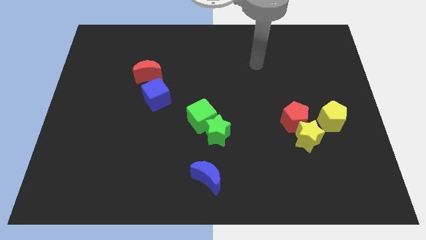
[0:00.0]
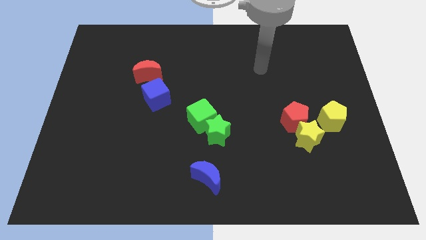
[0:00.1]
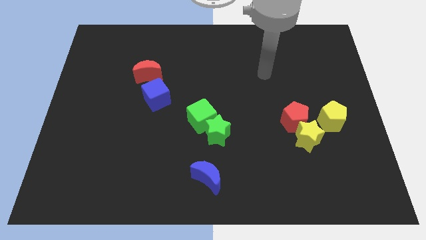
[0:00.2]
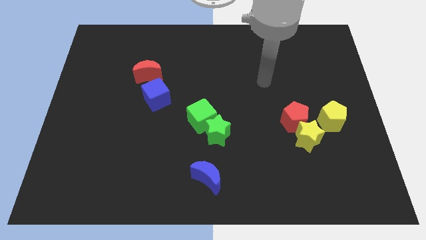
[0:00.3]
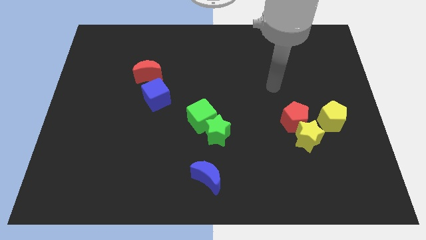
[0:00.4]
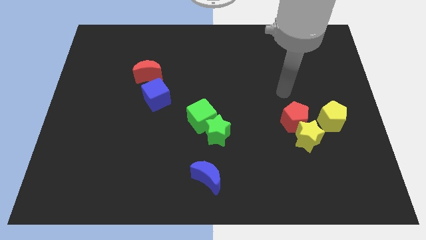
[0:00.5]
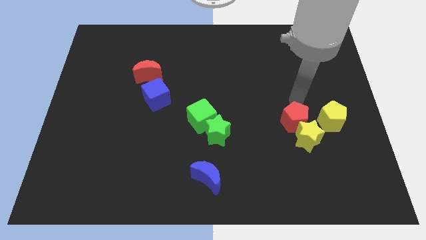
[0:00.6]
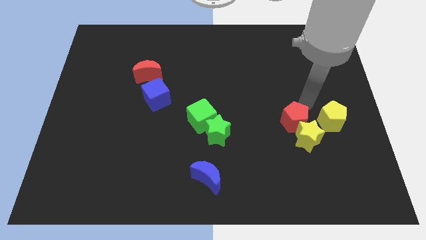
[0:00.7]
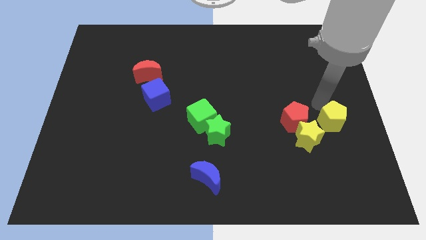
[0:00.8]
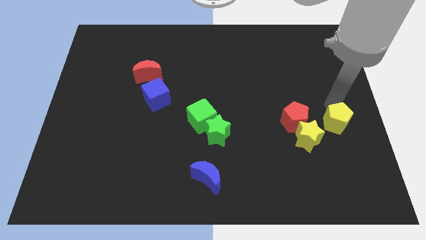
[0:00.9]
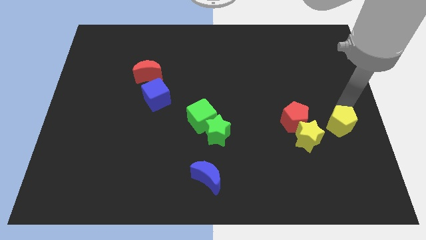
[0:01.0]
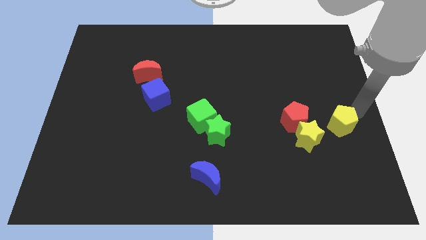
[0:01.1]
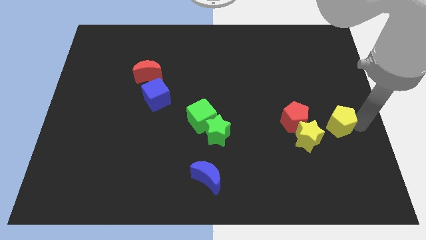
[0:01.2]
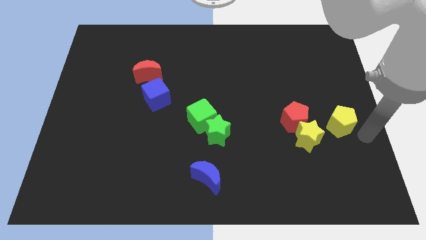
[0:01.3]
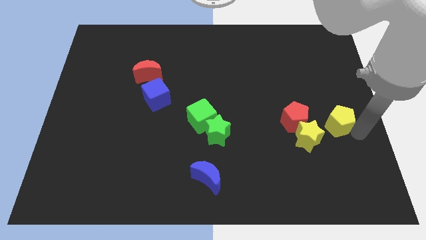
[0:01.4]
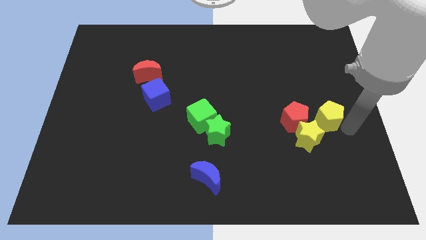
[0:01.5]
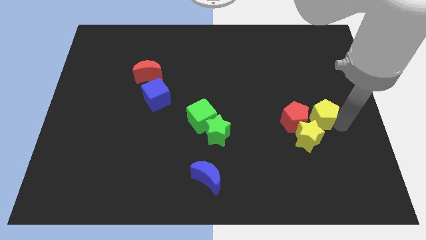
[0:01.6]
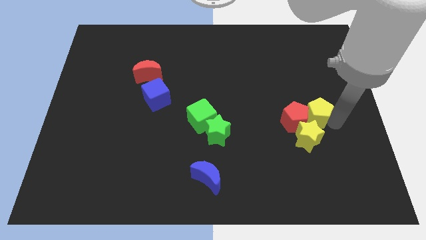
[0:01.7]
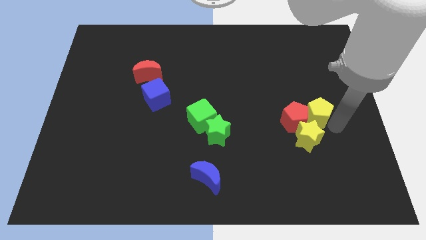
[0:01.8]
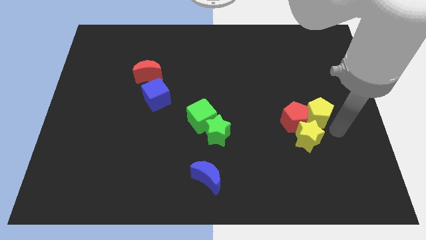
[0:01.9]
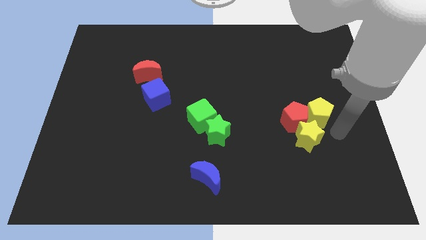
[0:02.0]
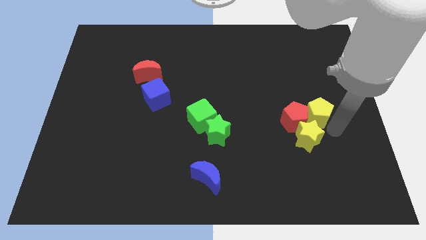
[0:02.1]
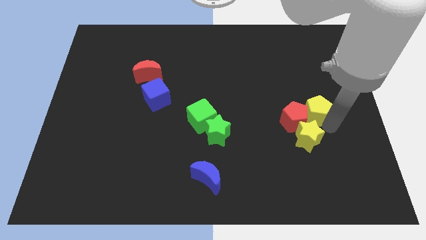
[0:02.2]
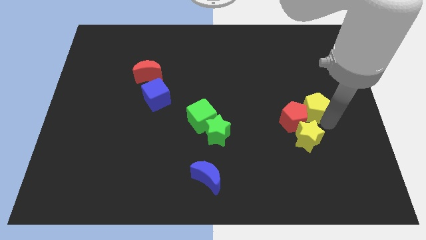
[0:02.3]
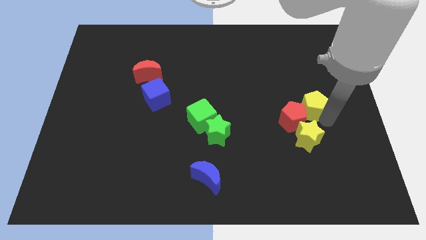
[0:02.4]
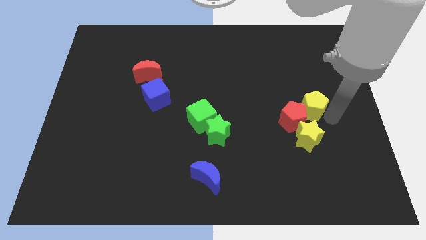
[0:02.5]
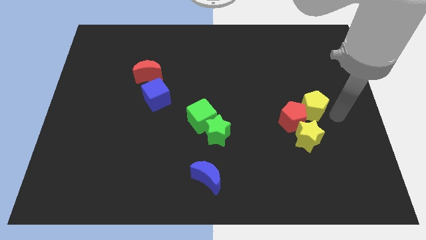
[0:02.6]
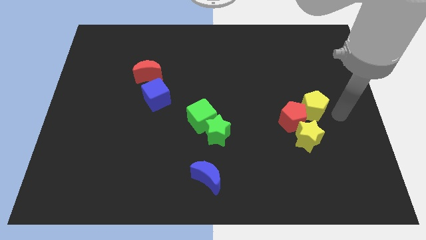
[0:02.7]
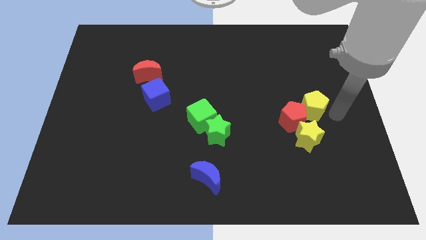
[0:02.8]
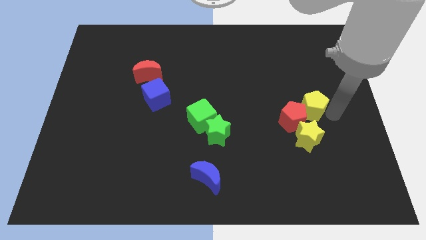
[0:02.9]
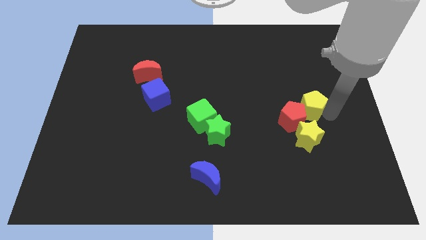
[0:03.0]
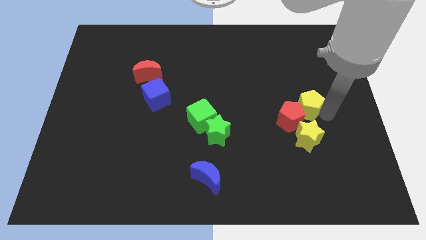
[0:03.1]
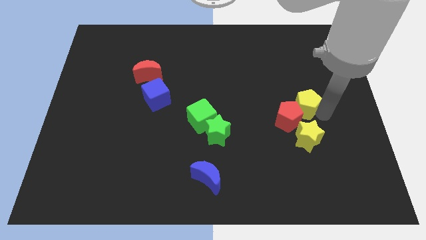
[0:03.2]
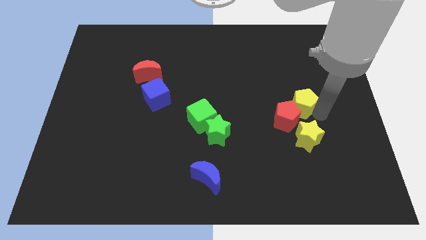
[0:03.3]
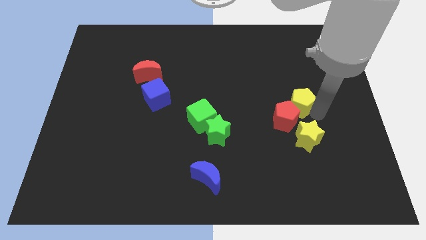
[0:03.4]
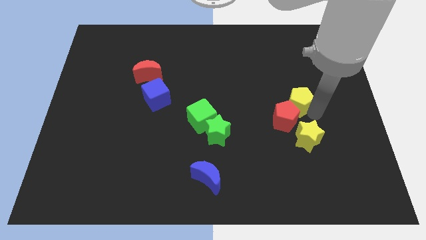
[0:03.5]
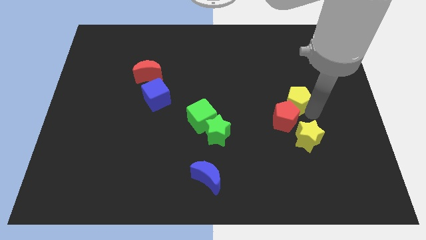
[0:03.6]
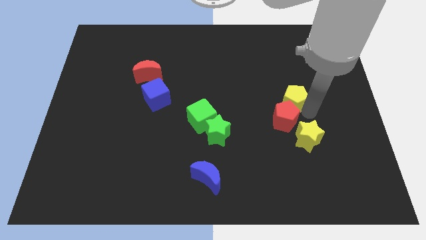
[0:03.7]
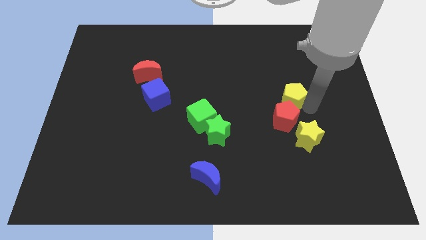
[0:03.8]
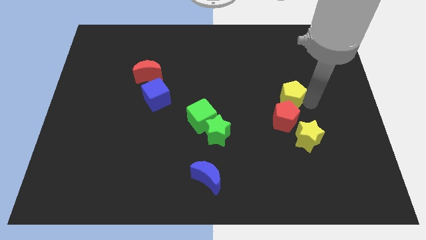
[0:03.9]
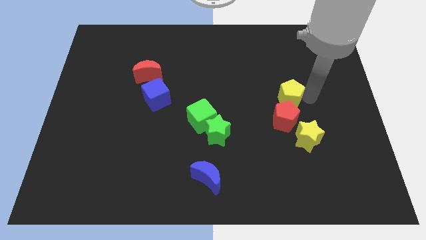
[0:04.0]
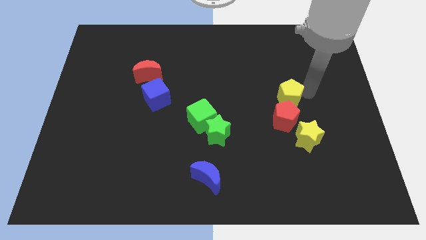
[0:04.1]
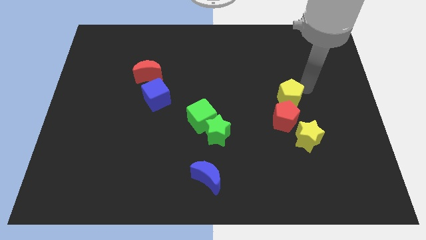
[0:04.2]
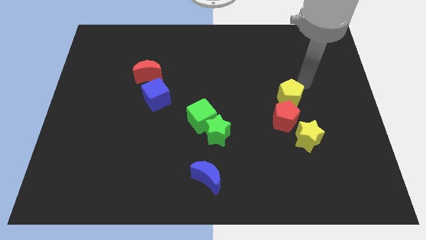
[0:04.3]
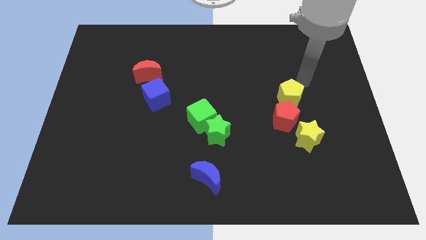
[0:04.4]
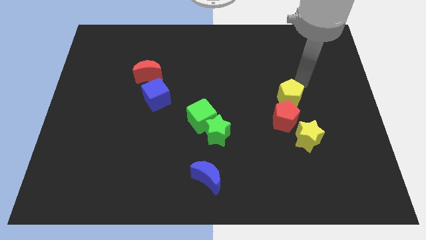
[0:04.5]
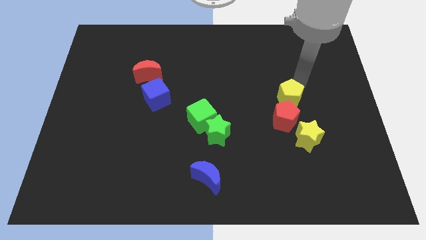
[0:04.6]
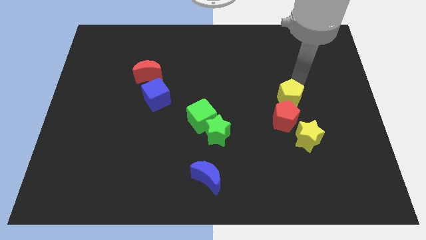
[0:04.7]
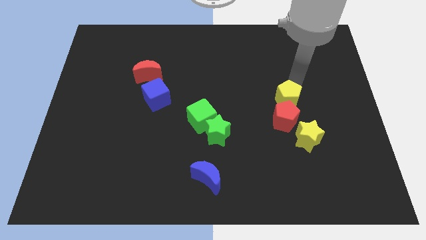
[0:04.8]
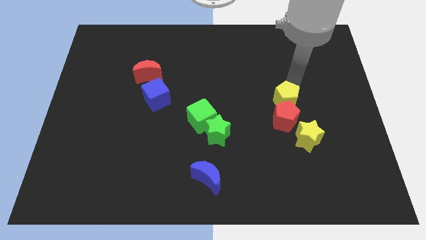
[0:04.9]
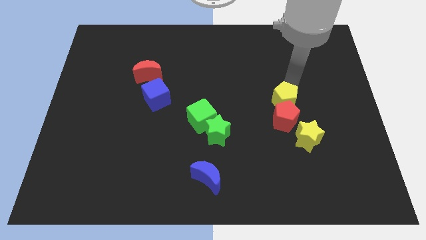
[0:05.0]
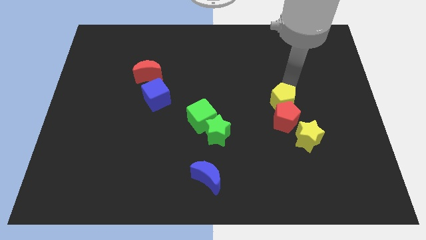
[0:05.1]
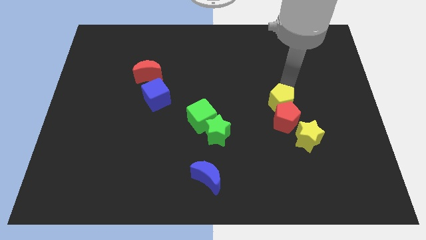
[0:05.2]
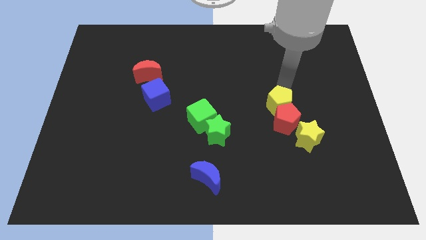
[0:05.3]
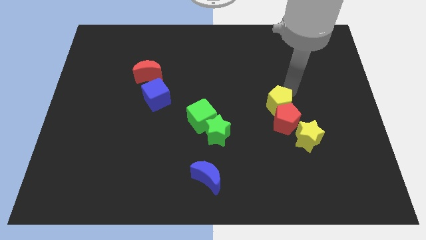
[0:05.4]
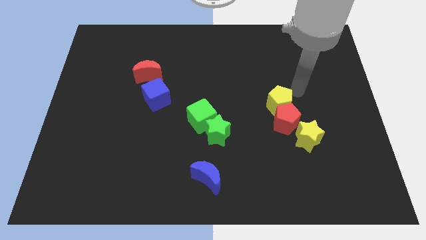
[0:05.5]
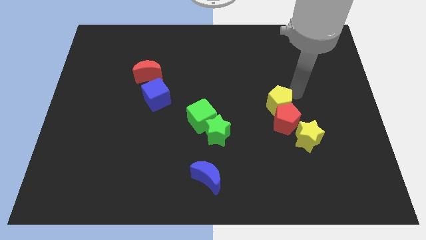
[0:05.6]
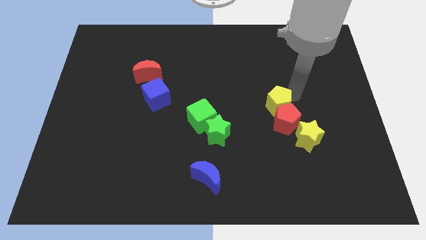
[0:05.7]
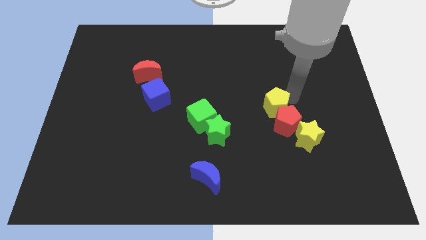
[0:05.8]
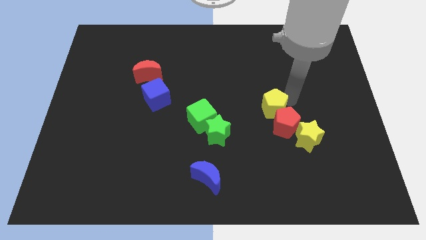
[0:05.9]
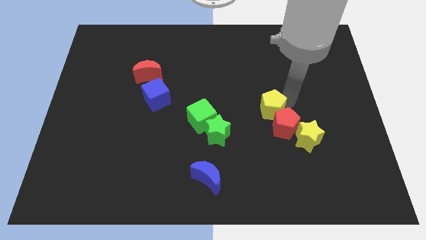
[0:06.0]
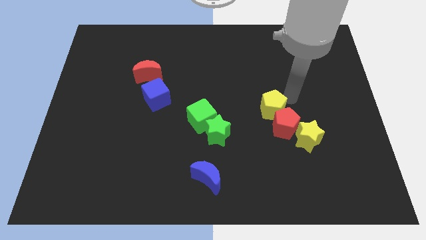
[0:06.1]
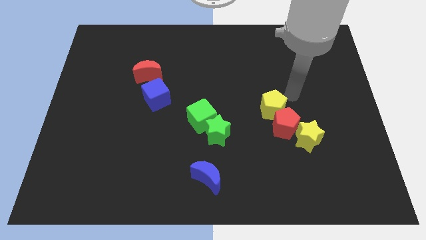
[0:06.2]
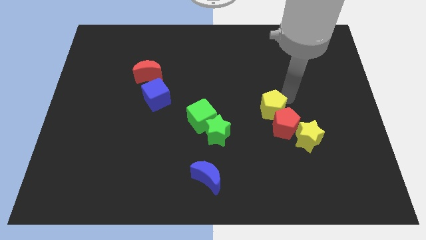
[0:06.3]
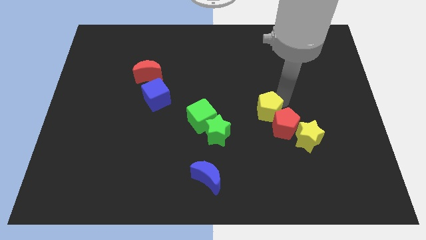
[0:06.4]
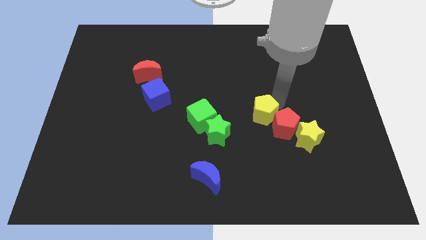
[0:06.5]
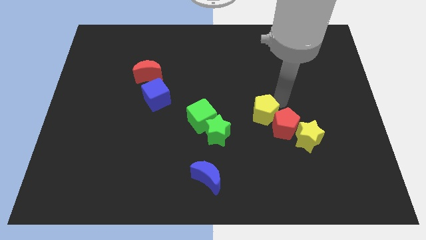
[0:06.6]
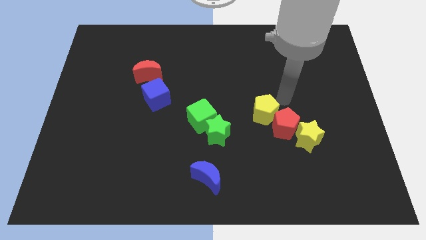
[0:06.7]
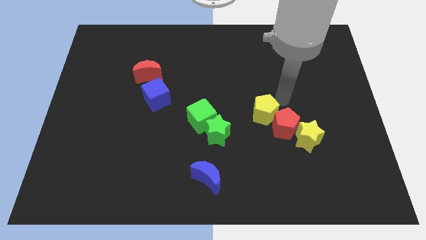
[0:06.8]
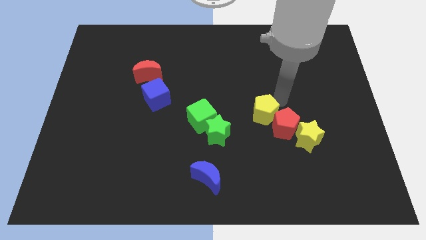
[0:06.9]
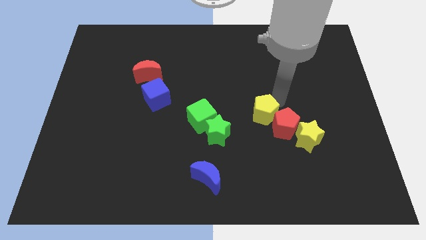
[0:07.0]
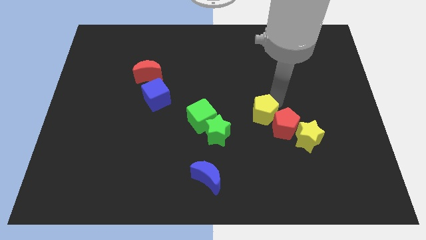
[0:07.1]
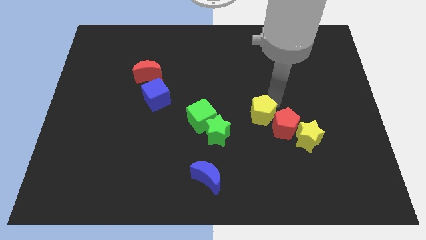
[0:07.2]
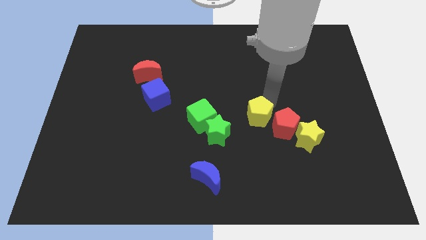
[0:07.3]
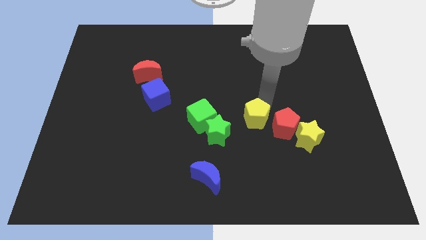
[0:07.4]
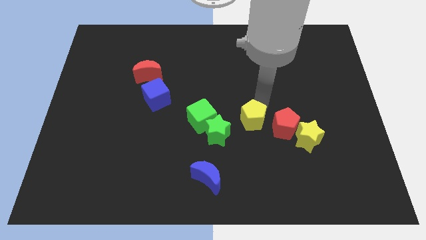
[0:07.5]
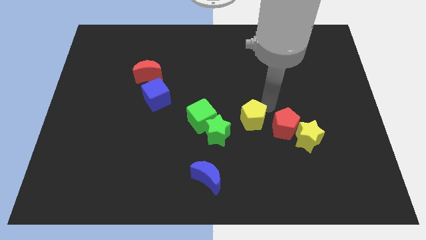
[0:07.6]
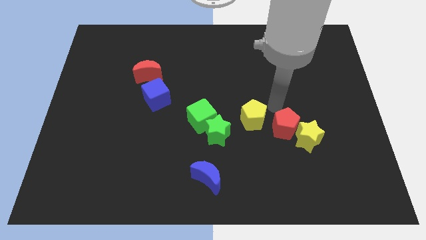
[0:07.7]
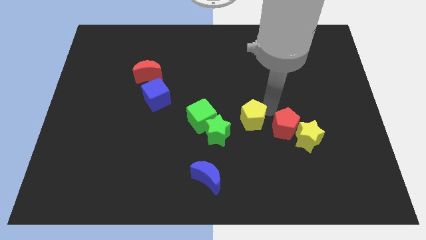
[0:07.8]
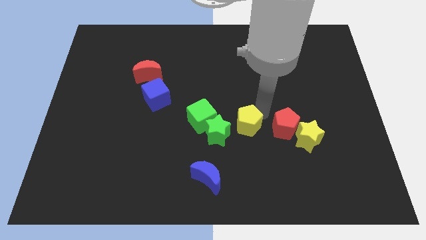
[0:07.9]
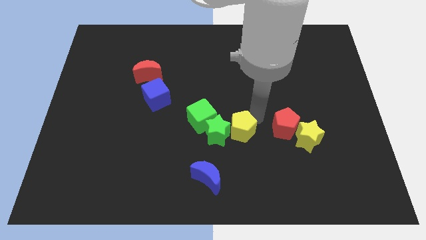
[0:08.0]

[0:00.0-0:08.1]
put the yellow pentagon next to the green star
